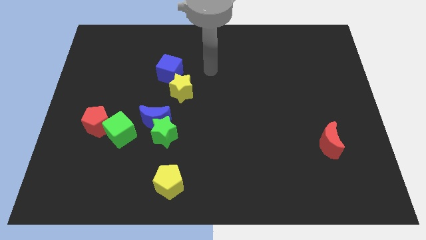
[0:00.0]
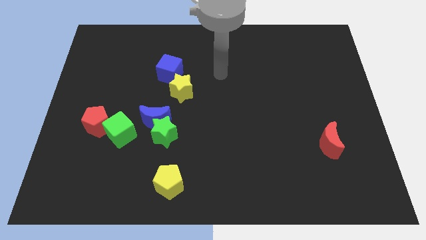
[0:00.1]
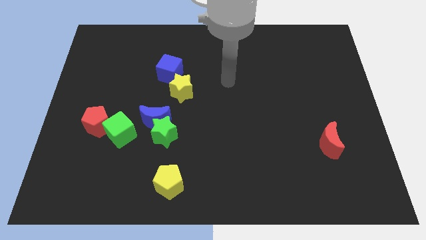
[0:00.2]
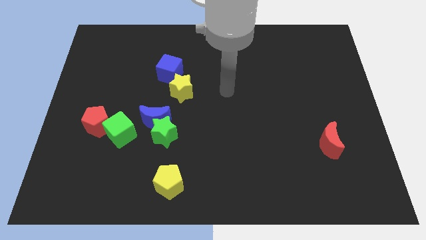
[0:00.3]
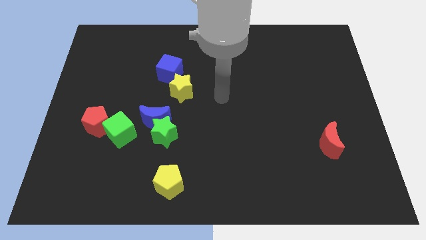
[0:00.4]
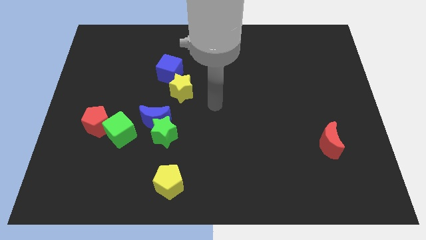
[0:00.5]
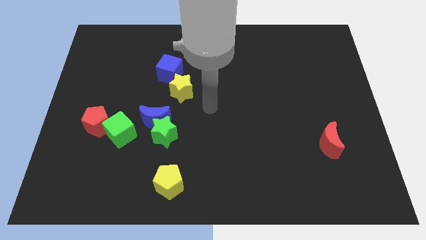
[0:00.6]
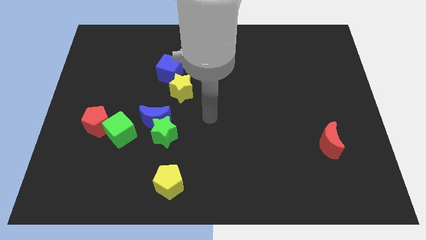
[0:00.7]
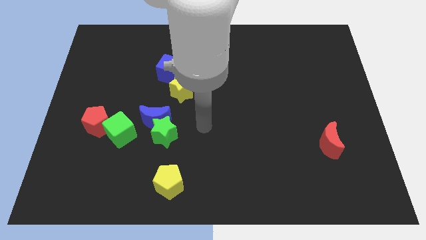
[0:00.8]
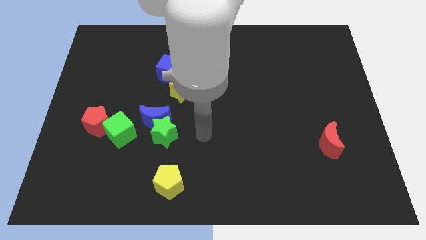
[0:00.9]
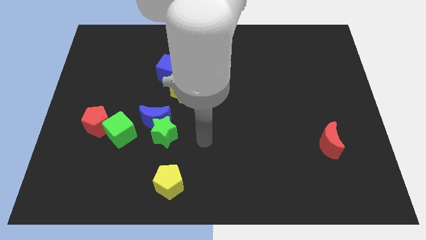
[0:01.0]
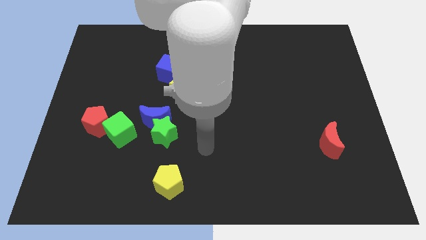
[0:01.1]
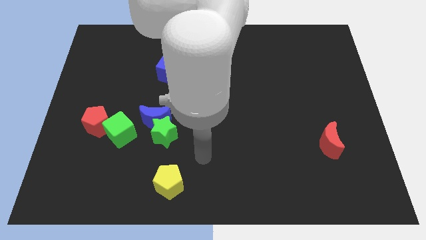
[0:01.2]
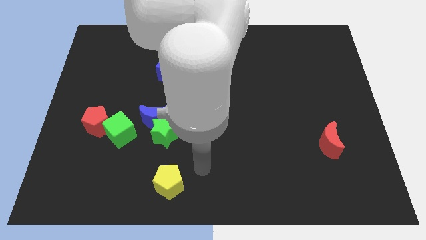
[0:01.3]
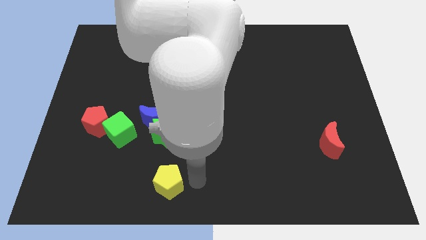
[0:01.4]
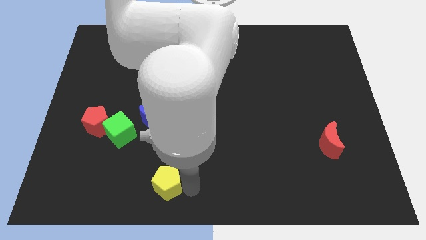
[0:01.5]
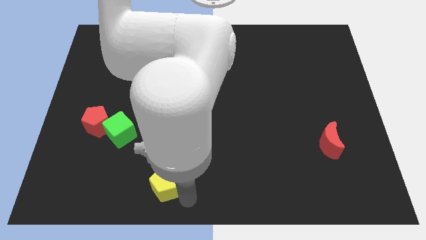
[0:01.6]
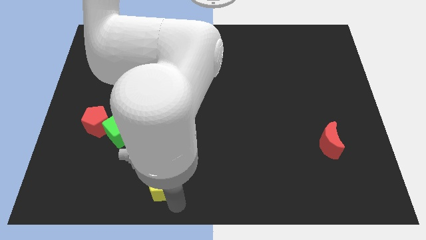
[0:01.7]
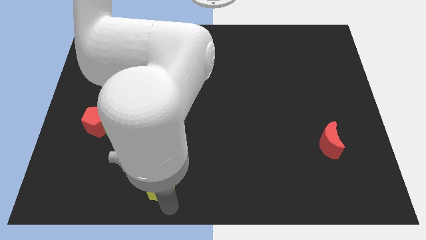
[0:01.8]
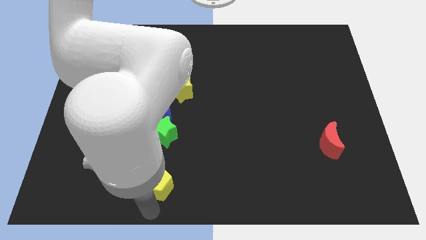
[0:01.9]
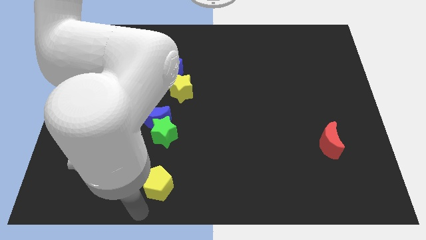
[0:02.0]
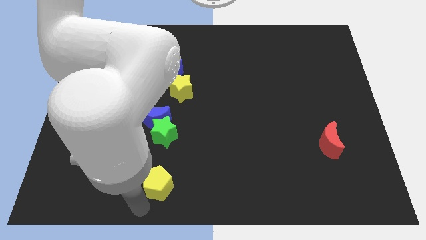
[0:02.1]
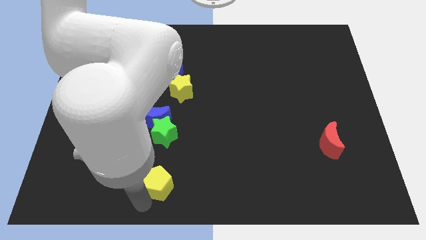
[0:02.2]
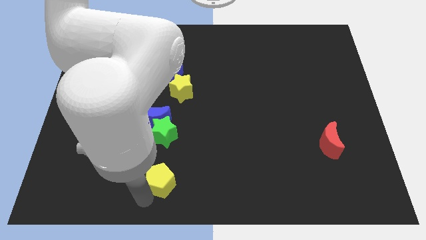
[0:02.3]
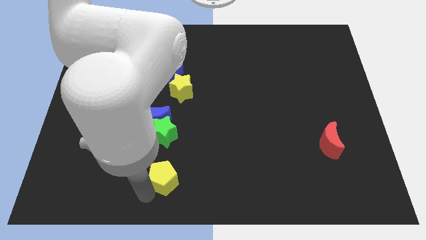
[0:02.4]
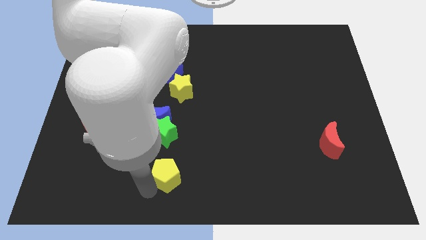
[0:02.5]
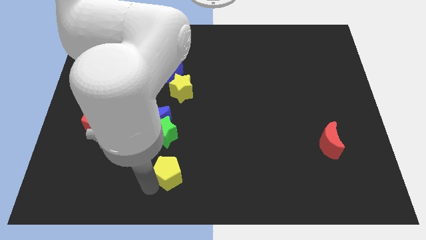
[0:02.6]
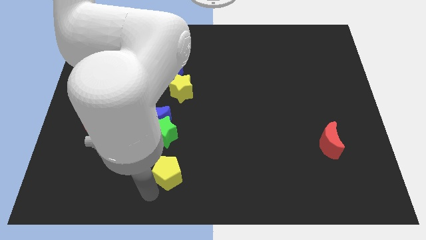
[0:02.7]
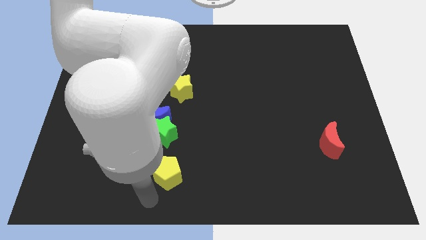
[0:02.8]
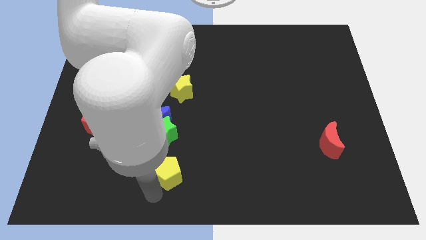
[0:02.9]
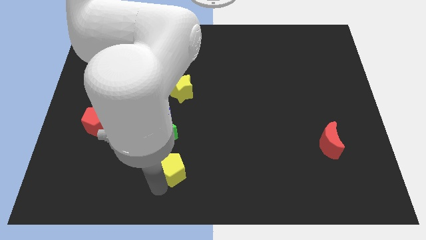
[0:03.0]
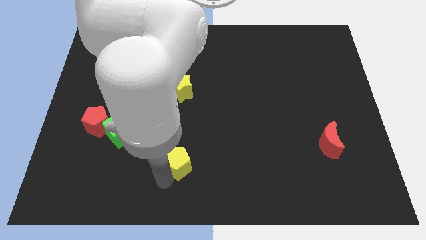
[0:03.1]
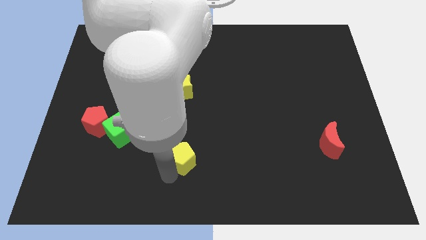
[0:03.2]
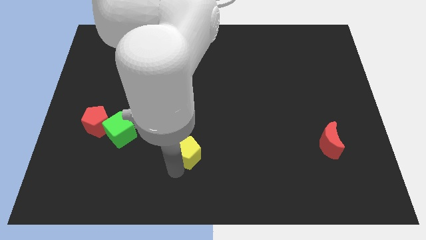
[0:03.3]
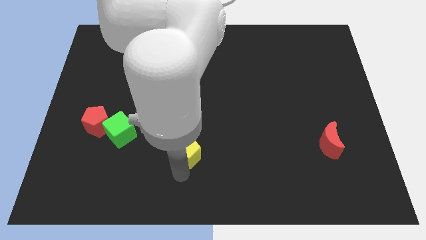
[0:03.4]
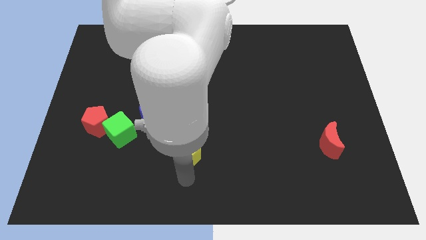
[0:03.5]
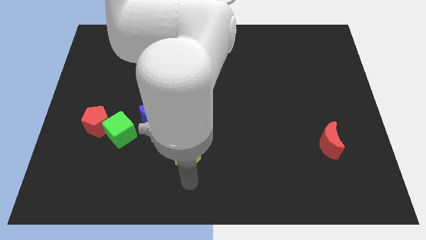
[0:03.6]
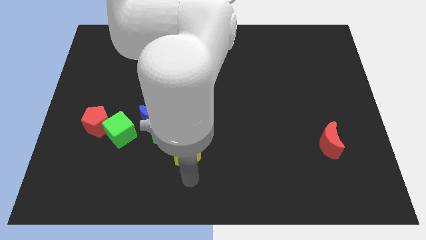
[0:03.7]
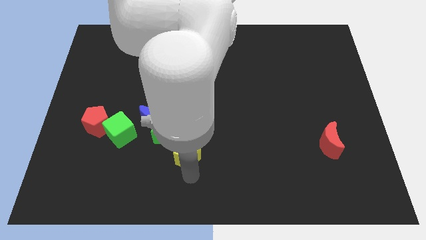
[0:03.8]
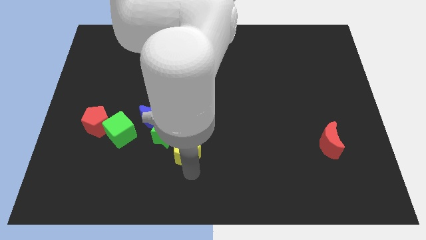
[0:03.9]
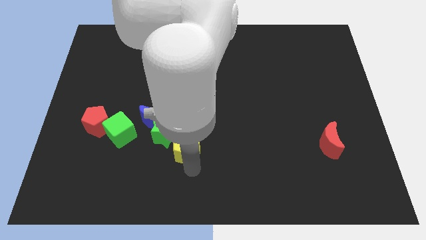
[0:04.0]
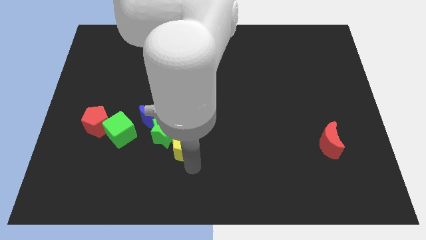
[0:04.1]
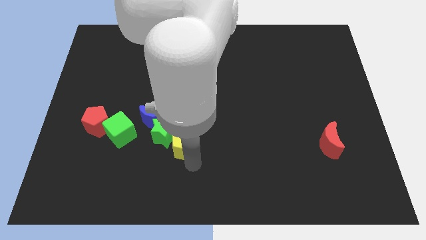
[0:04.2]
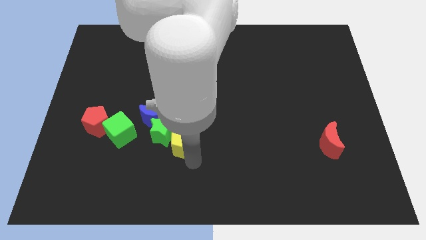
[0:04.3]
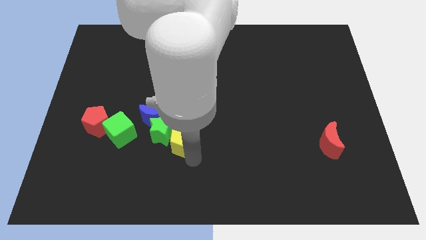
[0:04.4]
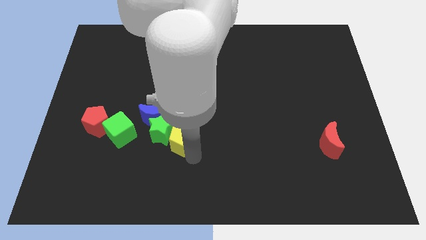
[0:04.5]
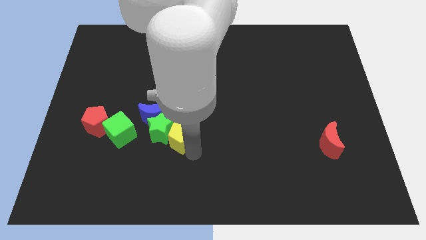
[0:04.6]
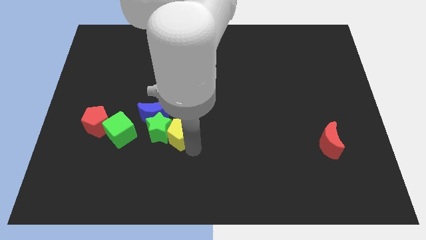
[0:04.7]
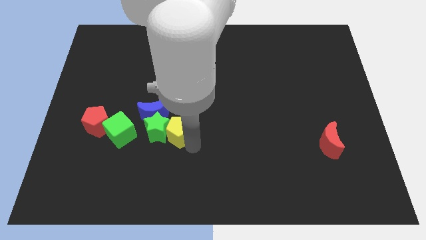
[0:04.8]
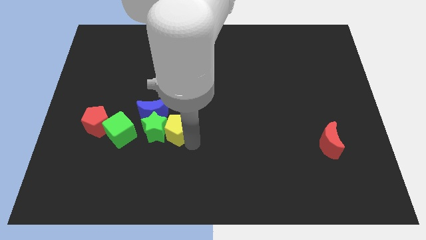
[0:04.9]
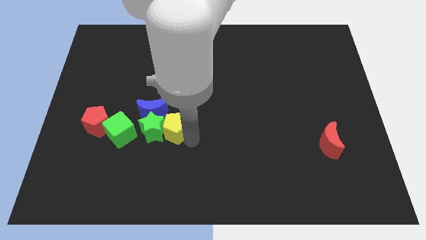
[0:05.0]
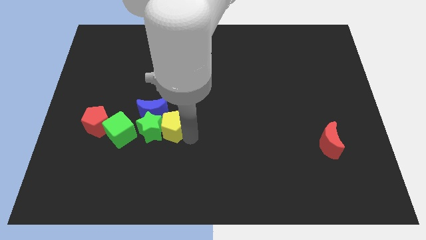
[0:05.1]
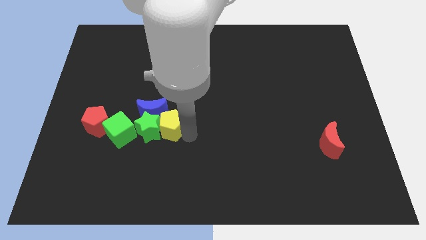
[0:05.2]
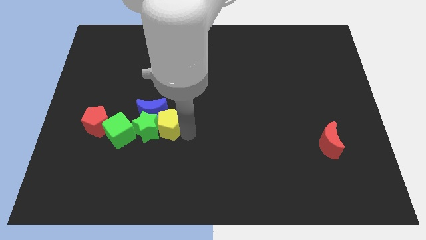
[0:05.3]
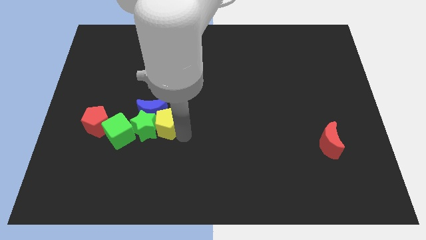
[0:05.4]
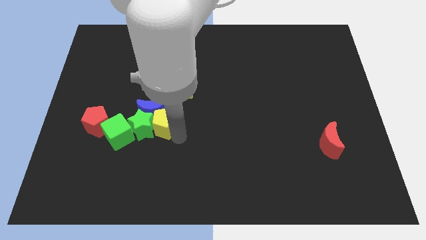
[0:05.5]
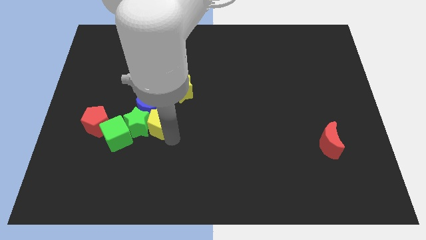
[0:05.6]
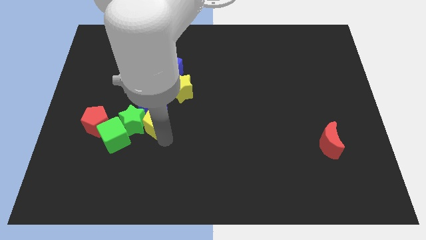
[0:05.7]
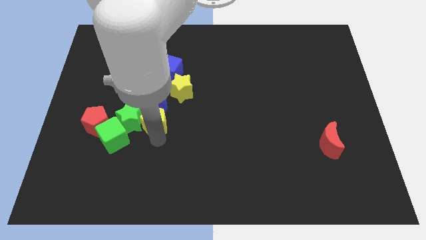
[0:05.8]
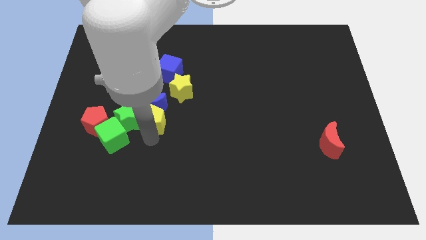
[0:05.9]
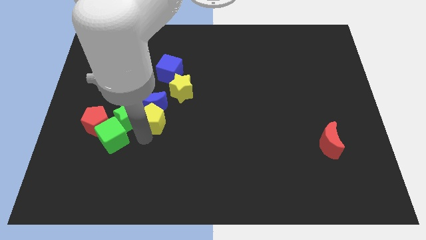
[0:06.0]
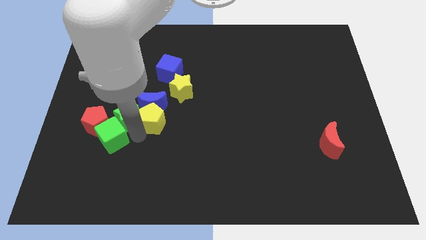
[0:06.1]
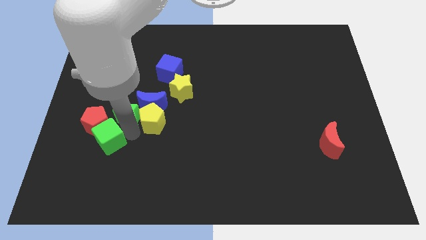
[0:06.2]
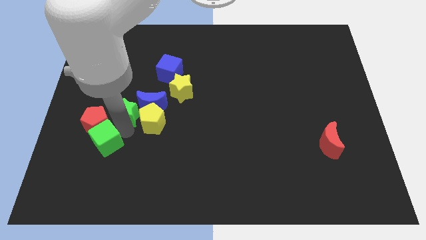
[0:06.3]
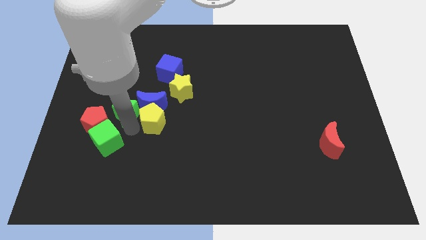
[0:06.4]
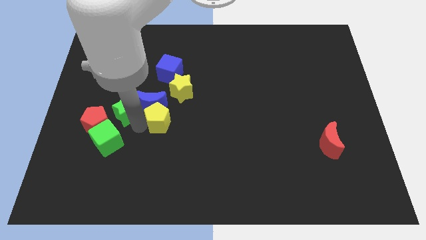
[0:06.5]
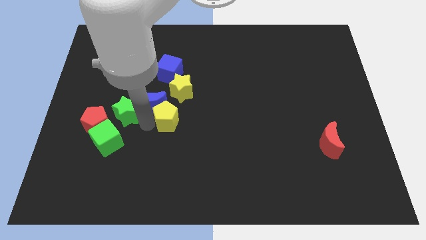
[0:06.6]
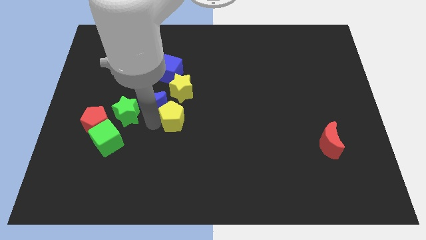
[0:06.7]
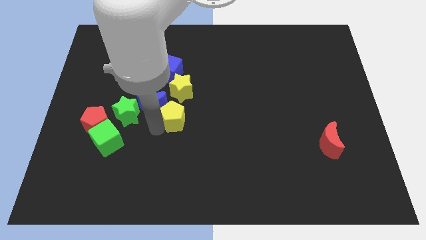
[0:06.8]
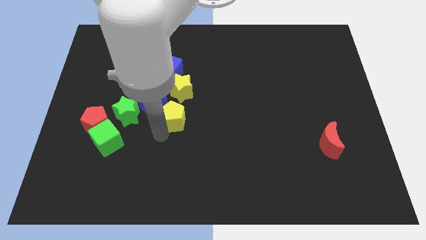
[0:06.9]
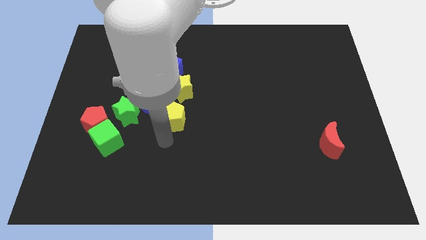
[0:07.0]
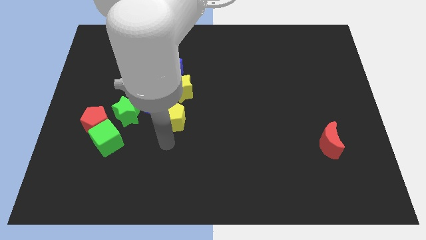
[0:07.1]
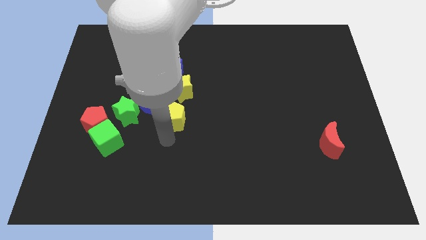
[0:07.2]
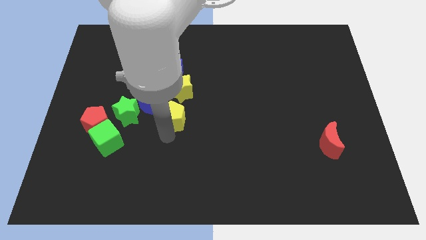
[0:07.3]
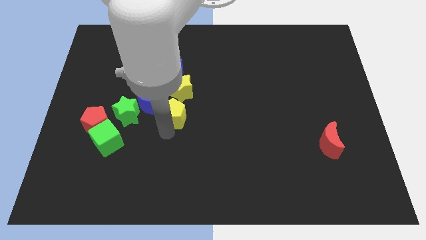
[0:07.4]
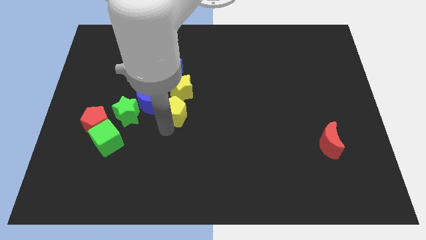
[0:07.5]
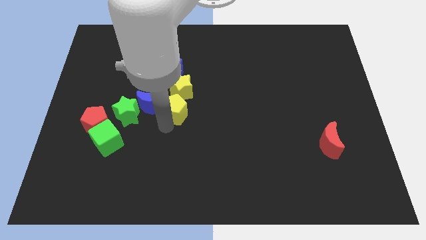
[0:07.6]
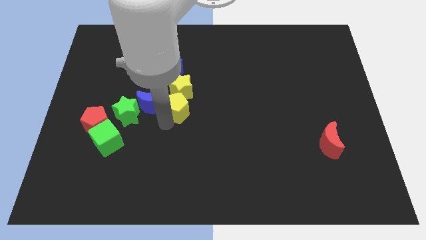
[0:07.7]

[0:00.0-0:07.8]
push the yellow pentagon next to the yellow star
